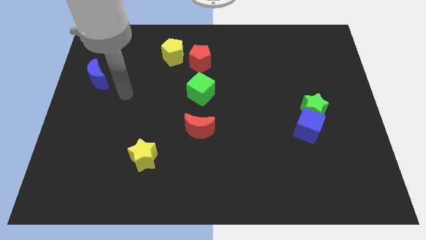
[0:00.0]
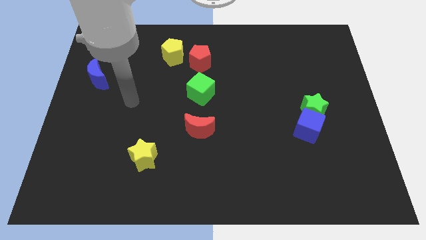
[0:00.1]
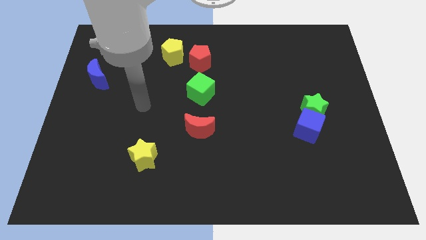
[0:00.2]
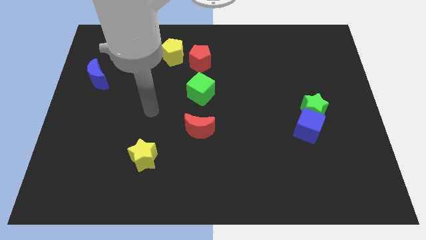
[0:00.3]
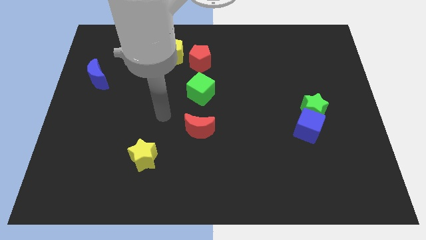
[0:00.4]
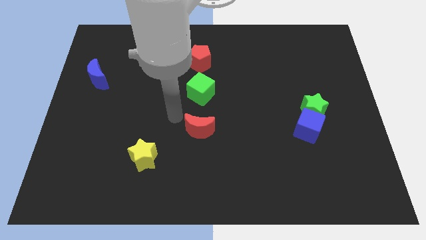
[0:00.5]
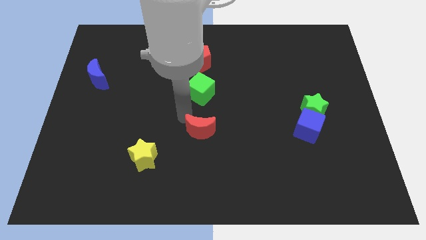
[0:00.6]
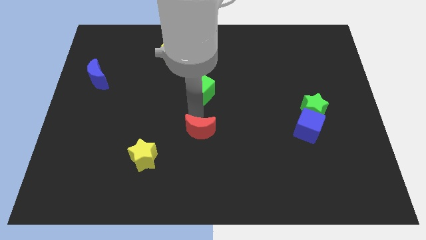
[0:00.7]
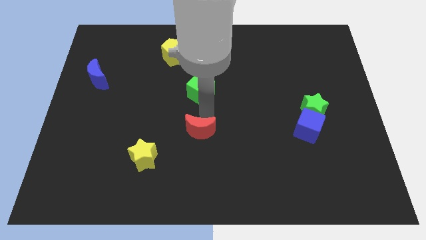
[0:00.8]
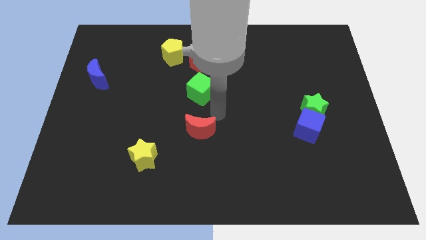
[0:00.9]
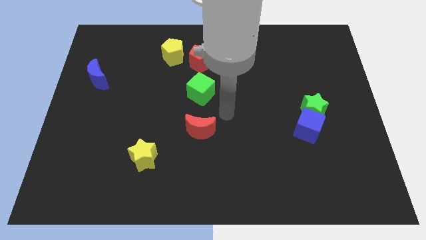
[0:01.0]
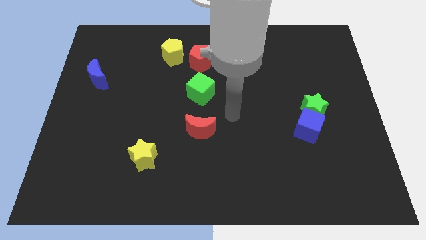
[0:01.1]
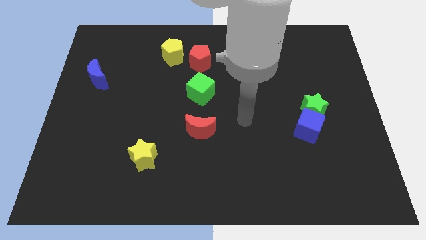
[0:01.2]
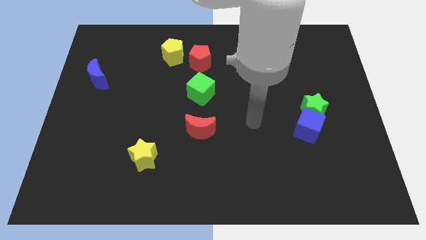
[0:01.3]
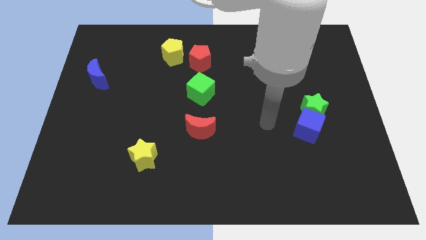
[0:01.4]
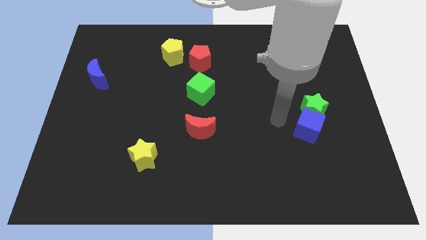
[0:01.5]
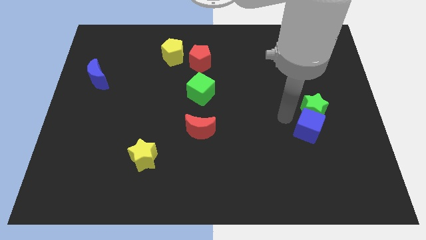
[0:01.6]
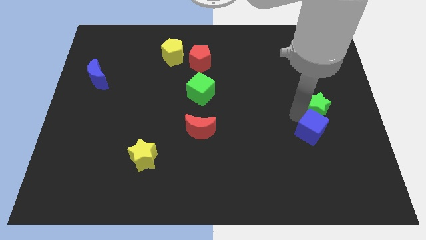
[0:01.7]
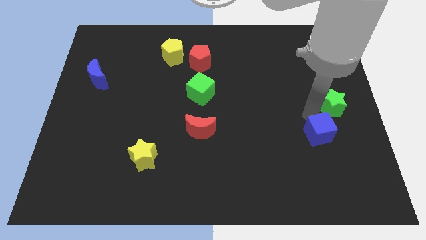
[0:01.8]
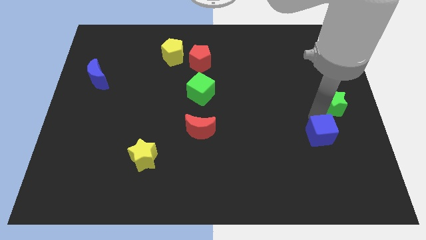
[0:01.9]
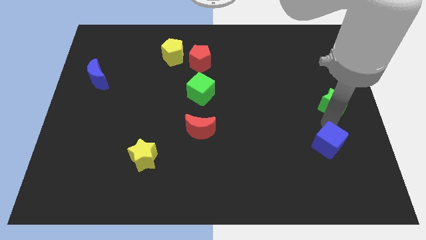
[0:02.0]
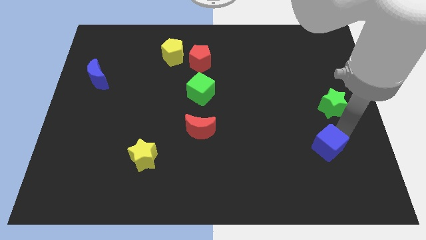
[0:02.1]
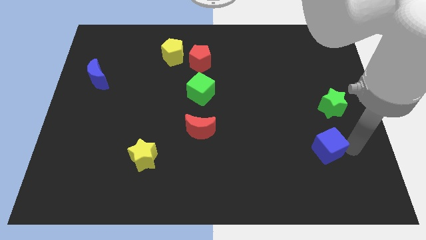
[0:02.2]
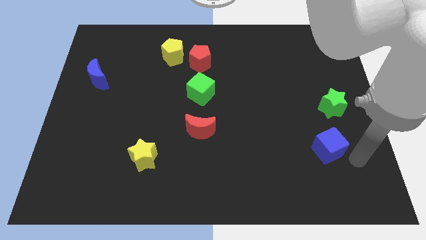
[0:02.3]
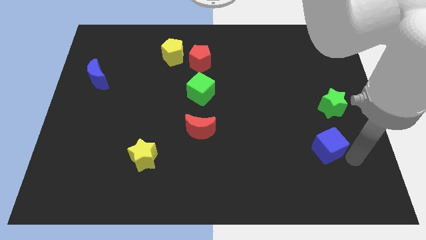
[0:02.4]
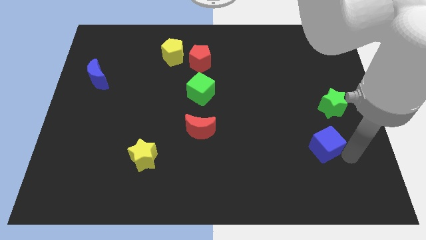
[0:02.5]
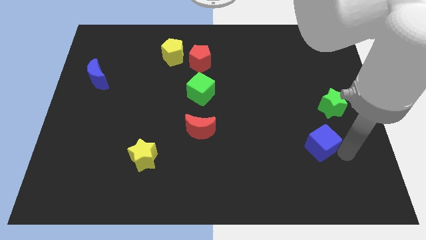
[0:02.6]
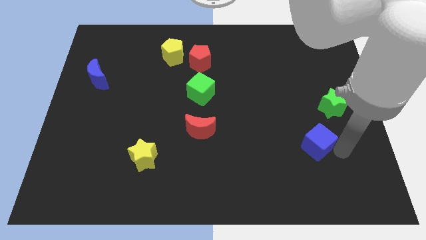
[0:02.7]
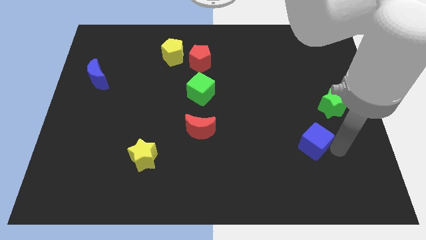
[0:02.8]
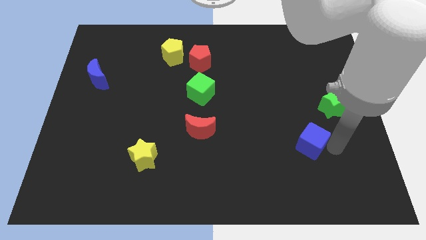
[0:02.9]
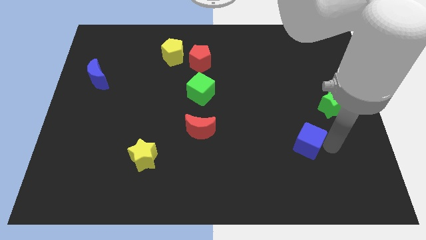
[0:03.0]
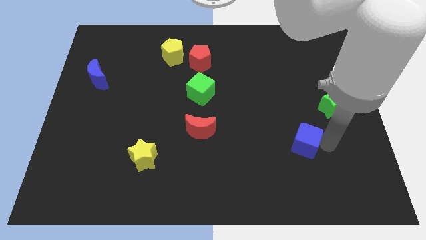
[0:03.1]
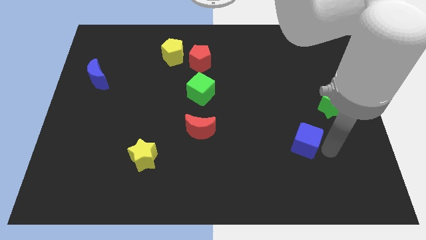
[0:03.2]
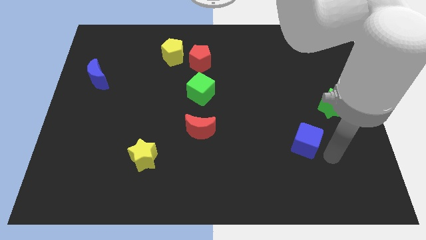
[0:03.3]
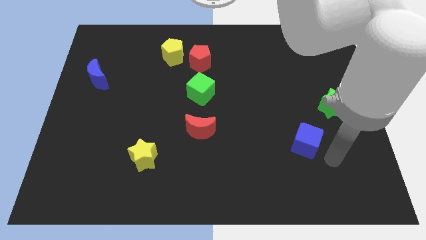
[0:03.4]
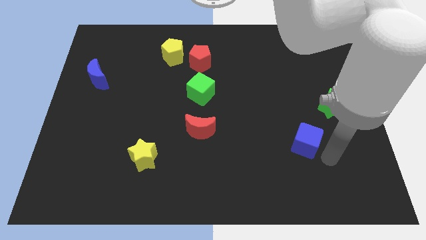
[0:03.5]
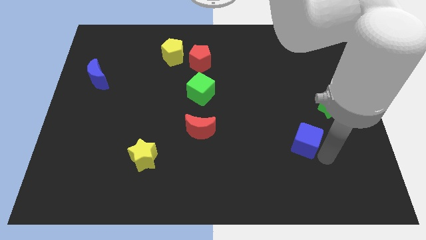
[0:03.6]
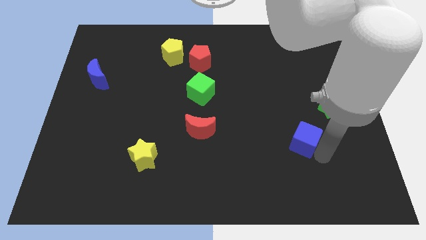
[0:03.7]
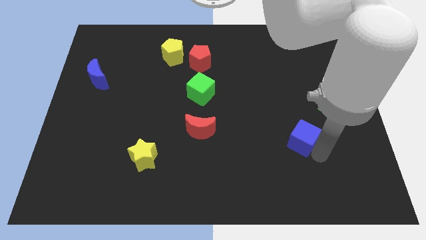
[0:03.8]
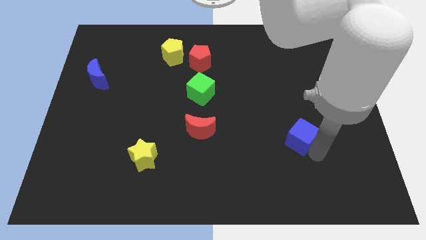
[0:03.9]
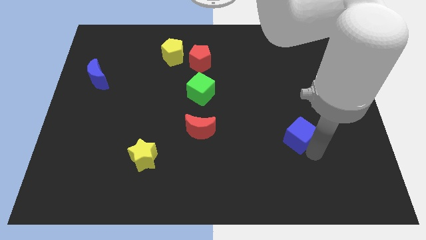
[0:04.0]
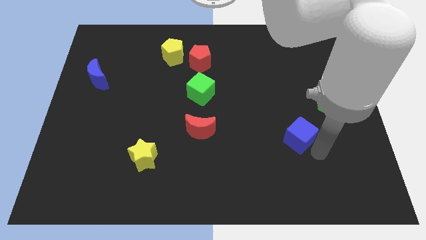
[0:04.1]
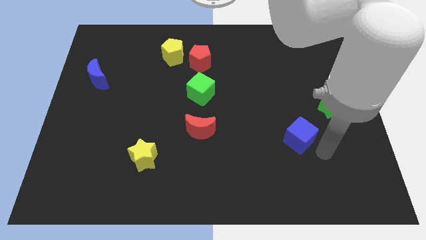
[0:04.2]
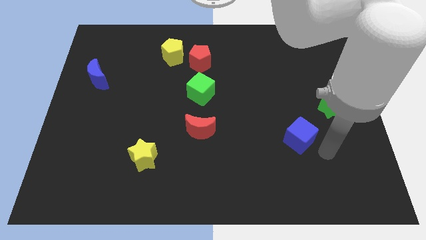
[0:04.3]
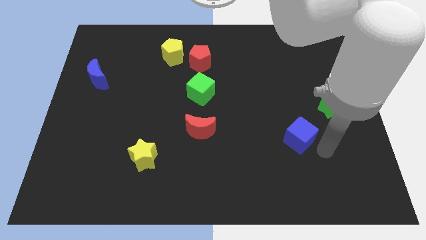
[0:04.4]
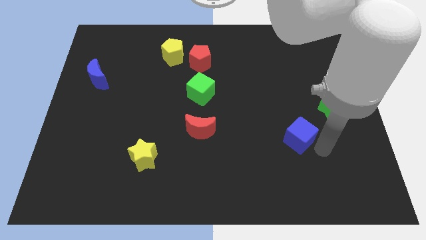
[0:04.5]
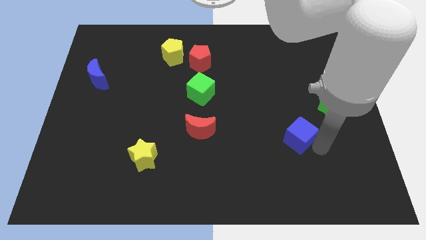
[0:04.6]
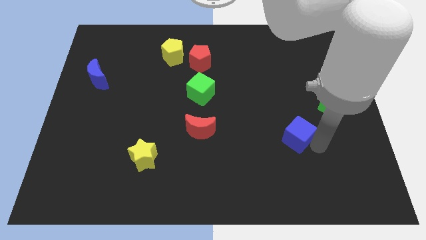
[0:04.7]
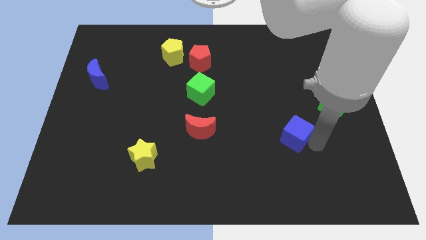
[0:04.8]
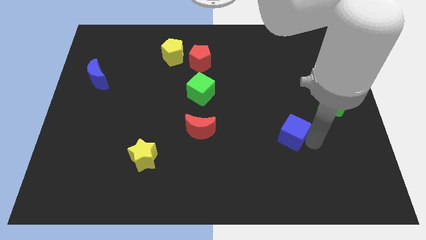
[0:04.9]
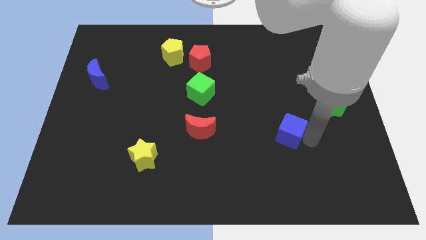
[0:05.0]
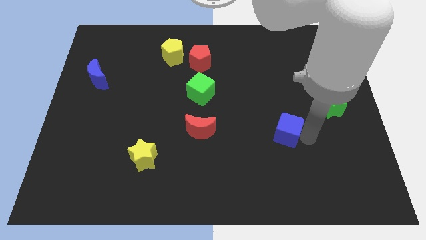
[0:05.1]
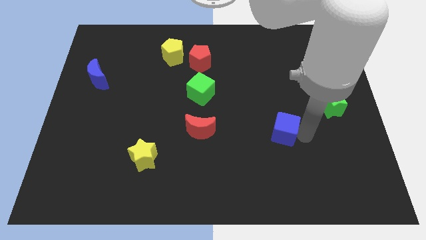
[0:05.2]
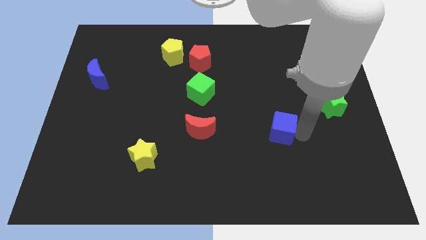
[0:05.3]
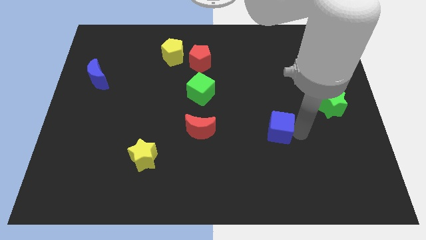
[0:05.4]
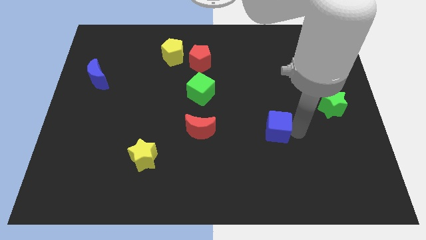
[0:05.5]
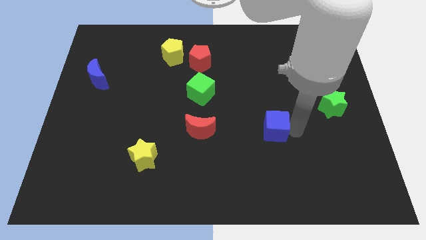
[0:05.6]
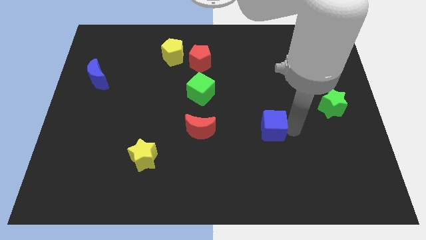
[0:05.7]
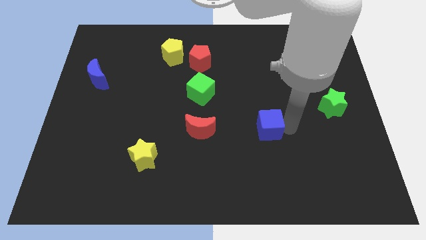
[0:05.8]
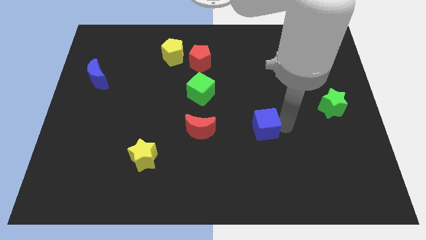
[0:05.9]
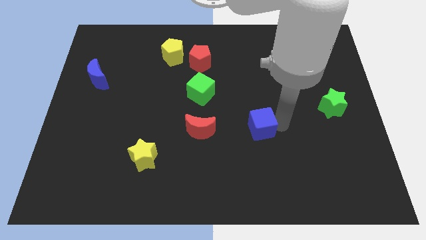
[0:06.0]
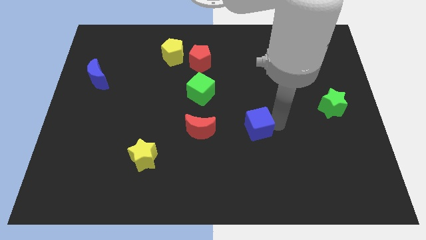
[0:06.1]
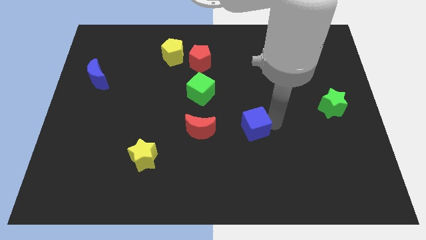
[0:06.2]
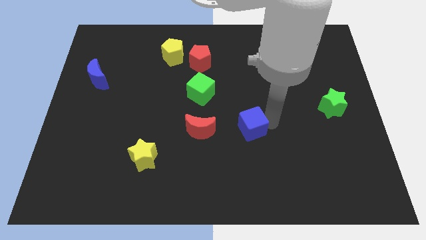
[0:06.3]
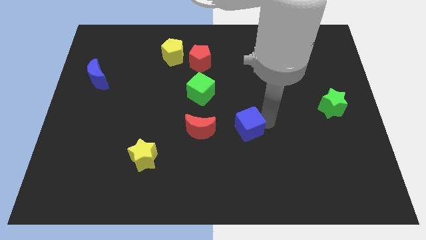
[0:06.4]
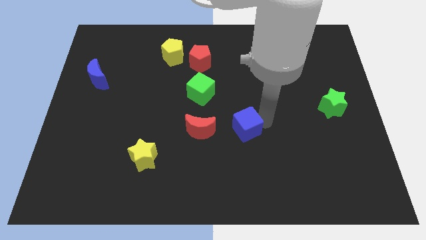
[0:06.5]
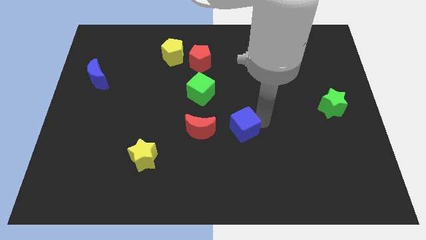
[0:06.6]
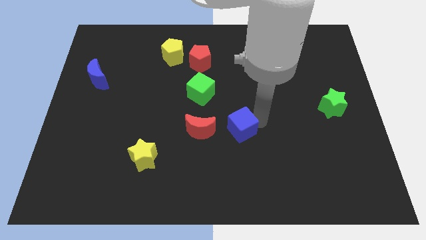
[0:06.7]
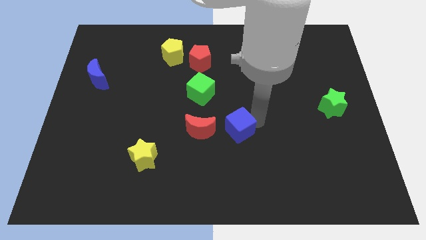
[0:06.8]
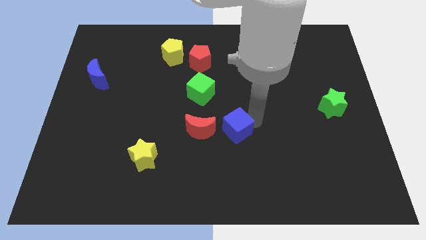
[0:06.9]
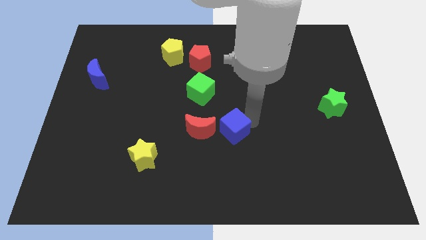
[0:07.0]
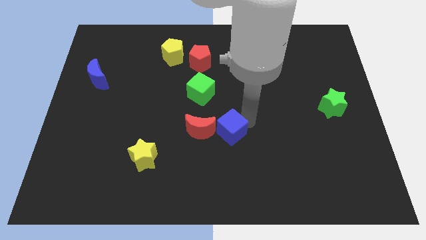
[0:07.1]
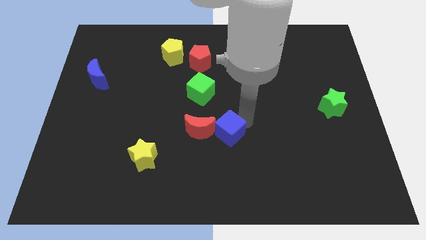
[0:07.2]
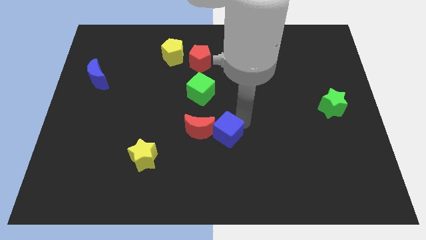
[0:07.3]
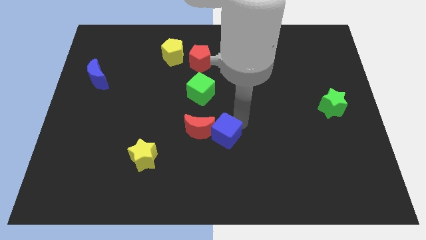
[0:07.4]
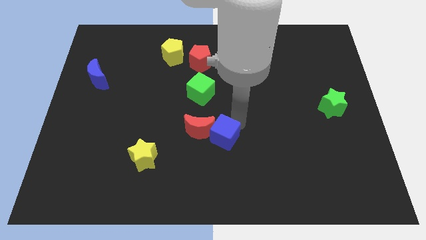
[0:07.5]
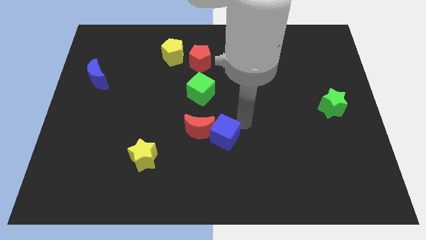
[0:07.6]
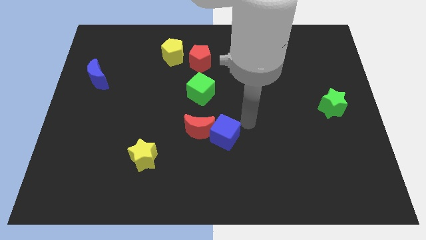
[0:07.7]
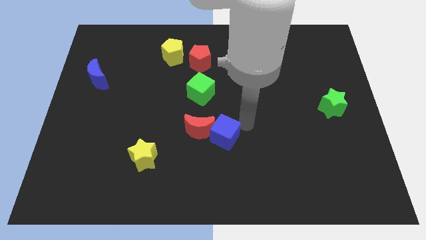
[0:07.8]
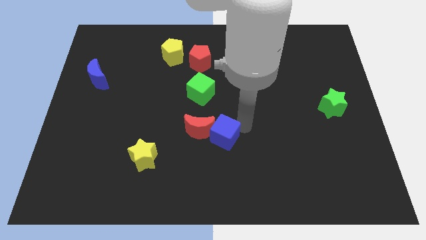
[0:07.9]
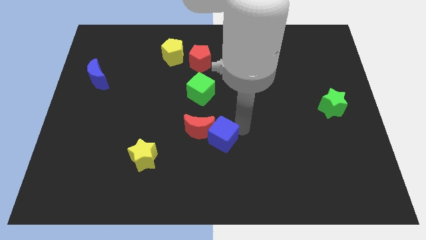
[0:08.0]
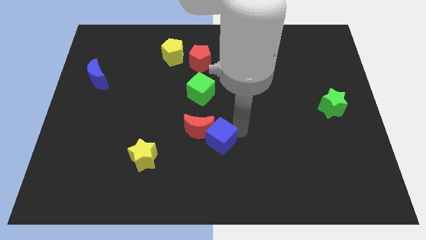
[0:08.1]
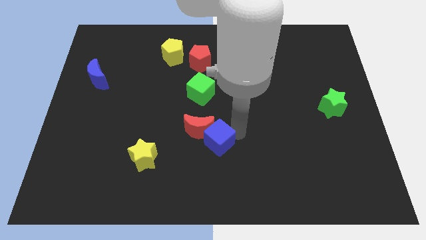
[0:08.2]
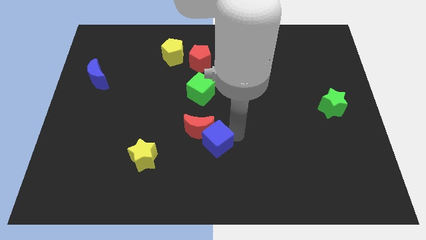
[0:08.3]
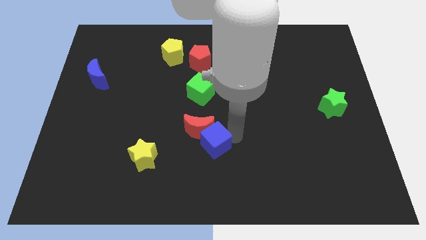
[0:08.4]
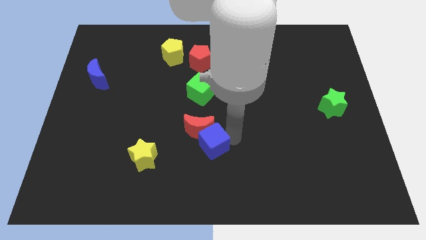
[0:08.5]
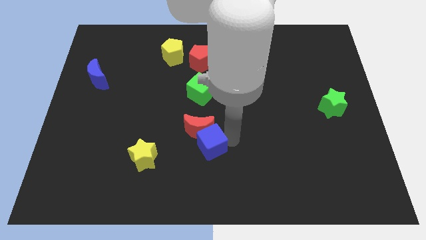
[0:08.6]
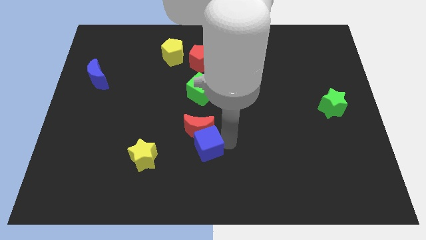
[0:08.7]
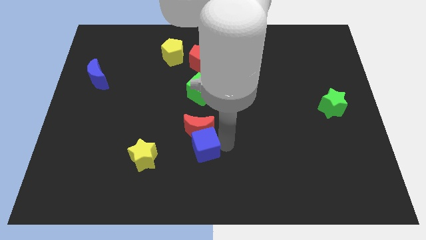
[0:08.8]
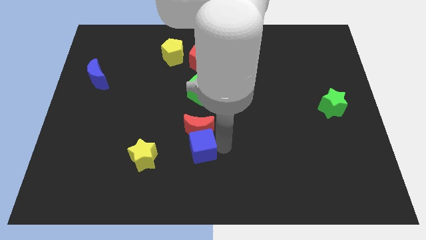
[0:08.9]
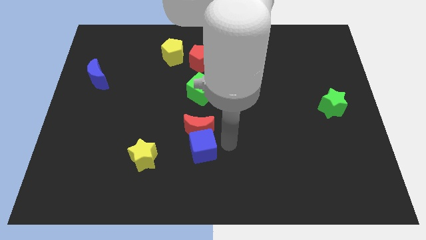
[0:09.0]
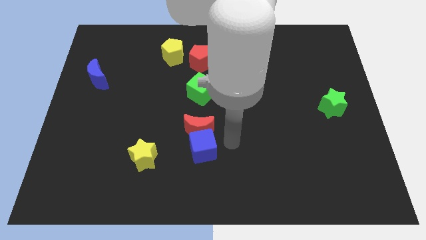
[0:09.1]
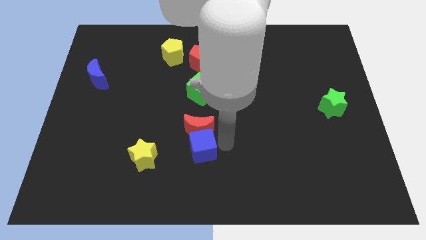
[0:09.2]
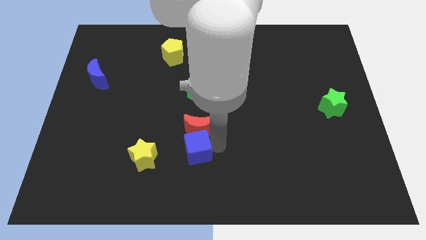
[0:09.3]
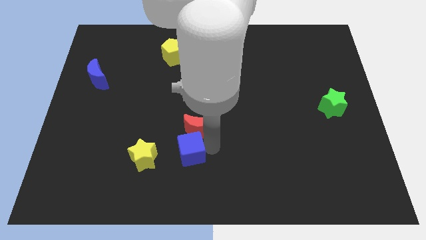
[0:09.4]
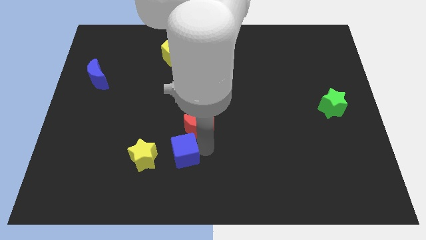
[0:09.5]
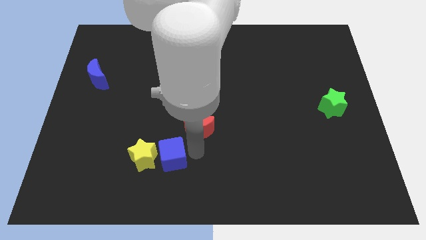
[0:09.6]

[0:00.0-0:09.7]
push the blue cube towards the yellow star
